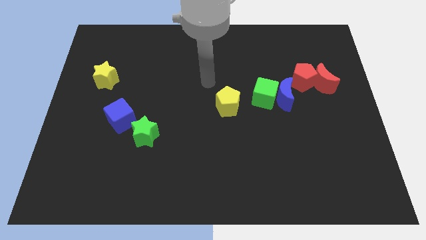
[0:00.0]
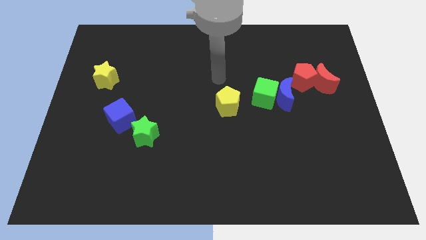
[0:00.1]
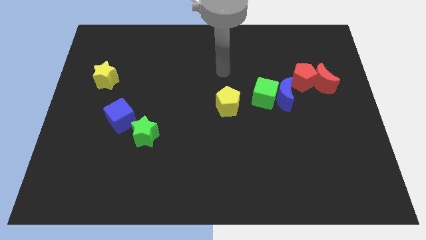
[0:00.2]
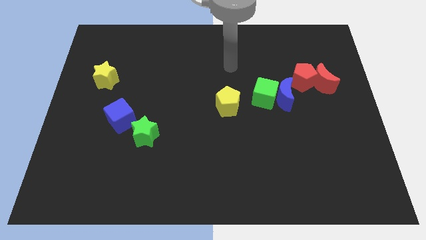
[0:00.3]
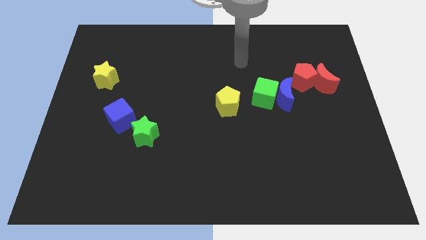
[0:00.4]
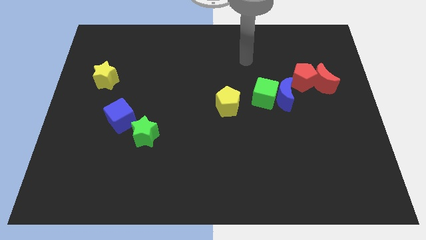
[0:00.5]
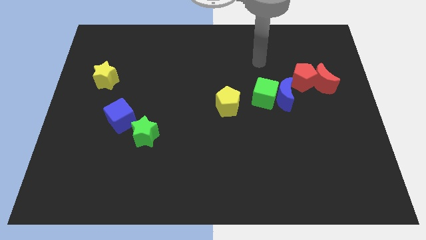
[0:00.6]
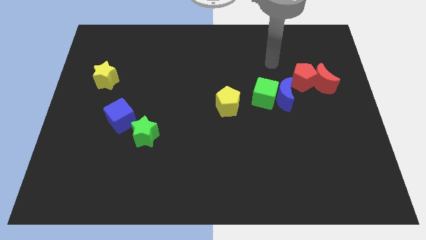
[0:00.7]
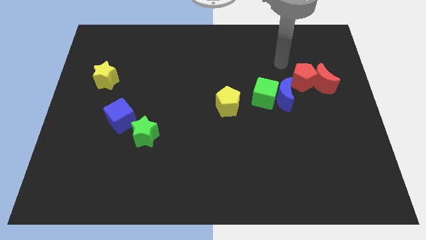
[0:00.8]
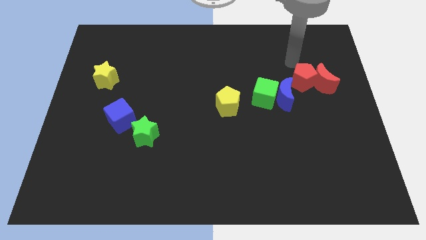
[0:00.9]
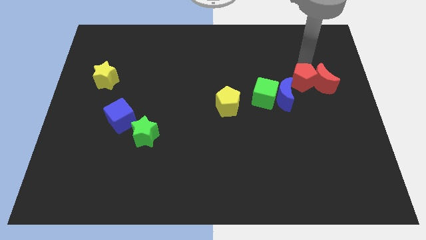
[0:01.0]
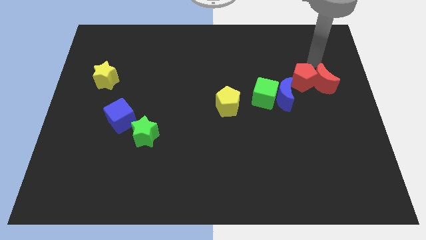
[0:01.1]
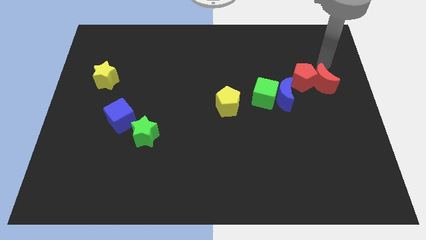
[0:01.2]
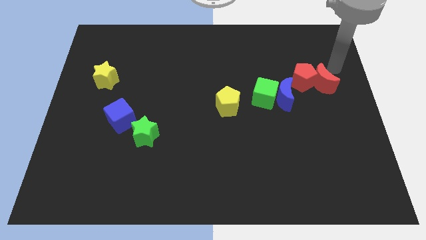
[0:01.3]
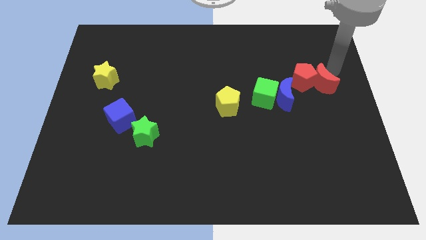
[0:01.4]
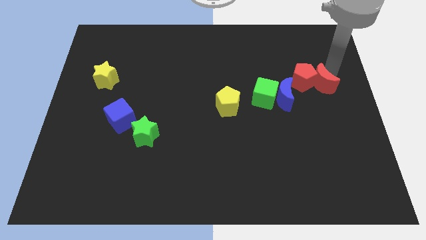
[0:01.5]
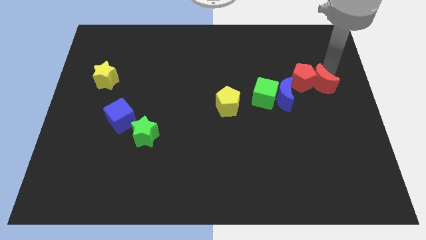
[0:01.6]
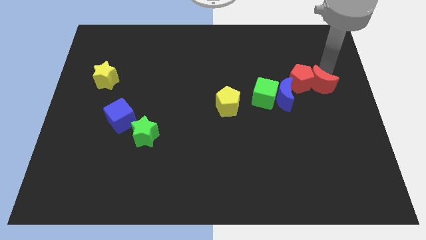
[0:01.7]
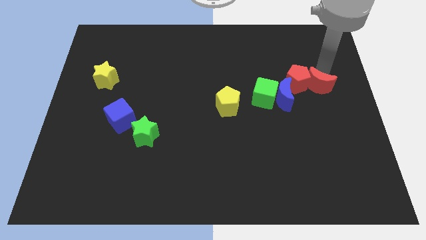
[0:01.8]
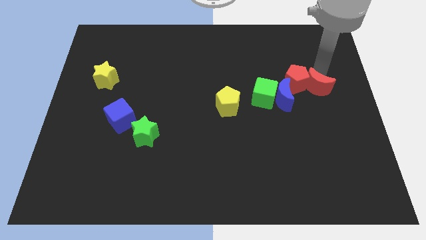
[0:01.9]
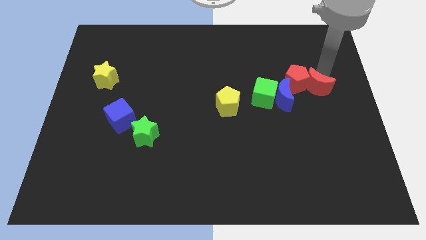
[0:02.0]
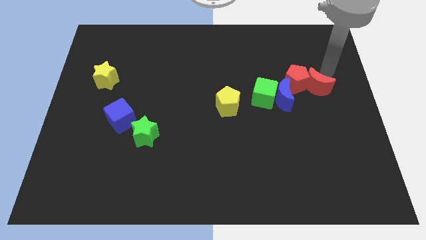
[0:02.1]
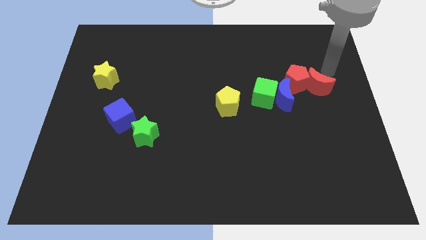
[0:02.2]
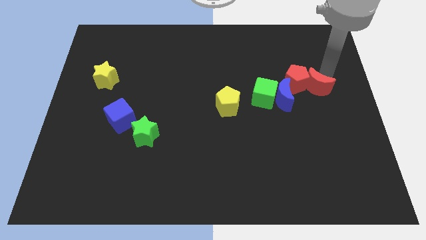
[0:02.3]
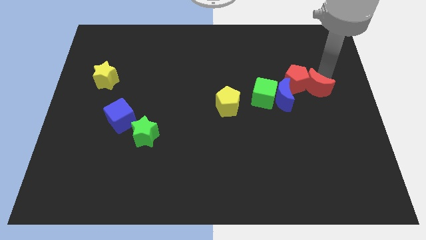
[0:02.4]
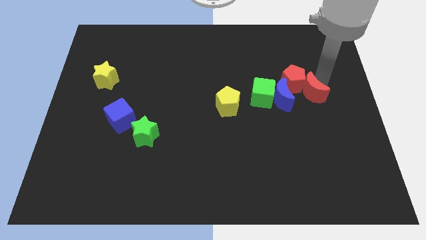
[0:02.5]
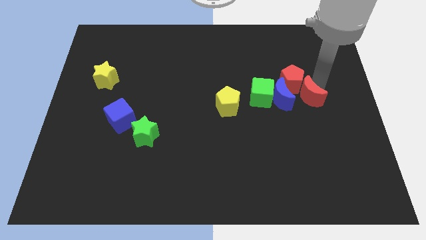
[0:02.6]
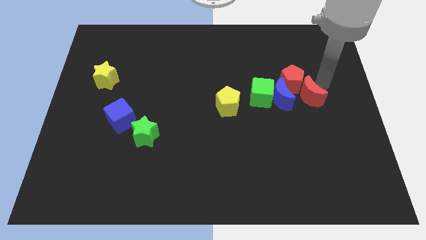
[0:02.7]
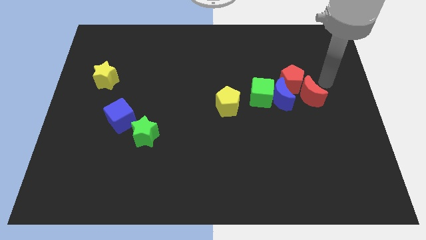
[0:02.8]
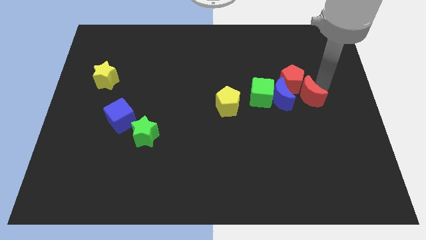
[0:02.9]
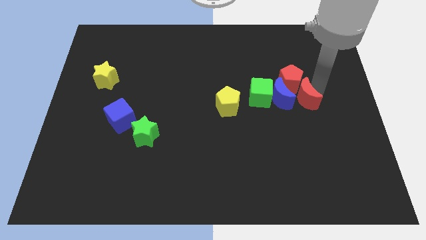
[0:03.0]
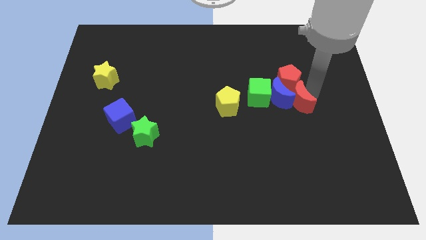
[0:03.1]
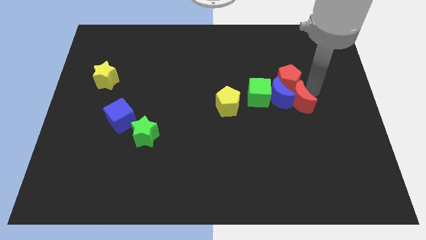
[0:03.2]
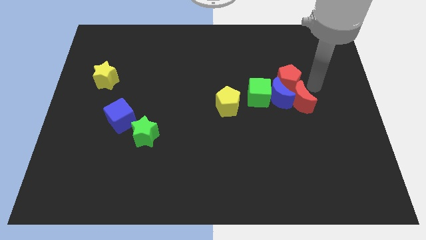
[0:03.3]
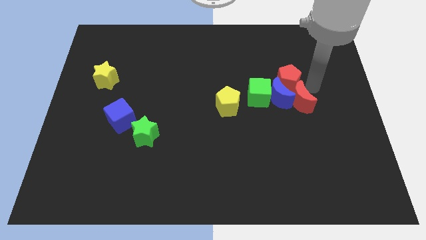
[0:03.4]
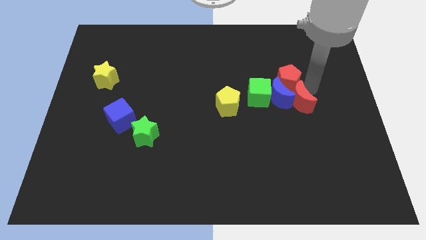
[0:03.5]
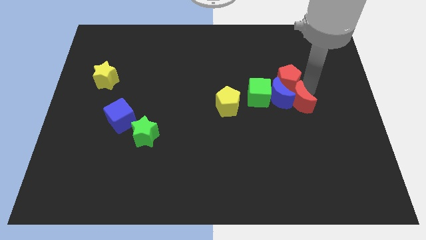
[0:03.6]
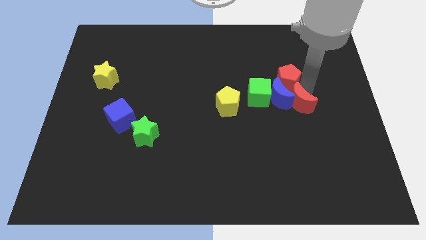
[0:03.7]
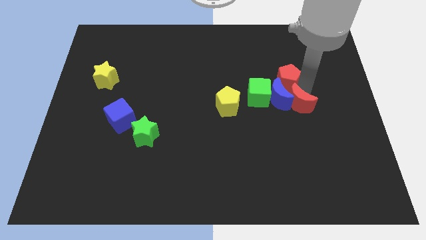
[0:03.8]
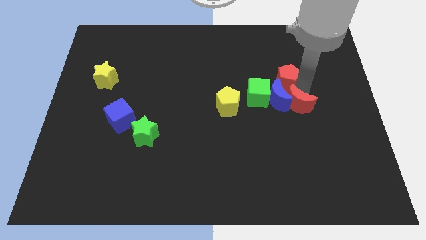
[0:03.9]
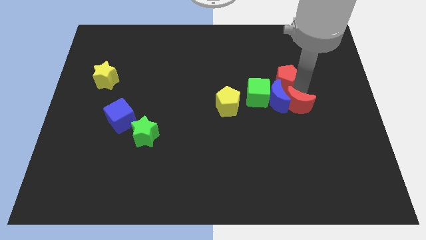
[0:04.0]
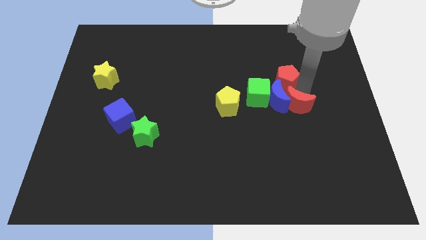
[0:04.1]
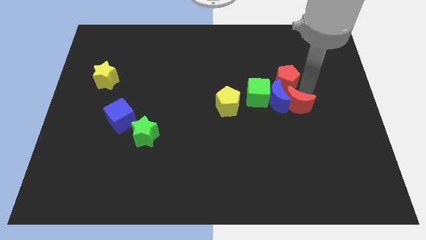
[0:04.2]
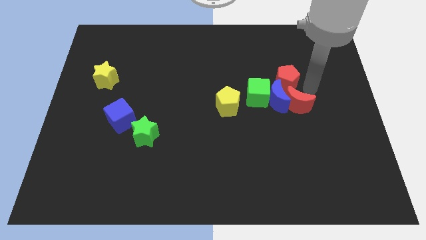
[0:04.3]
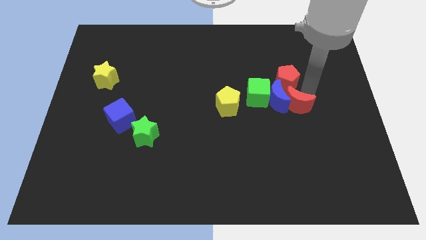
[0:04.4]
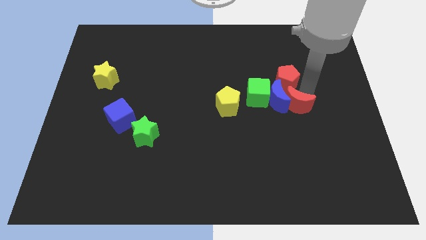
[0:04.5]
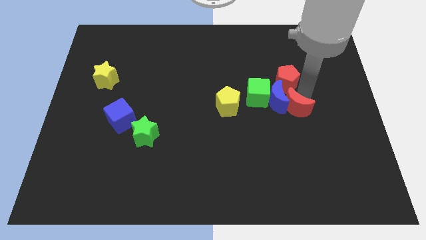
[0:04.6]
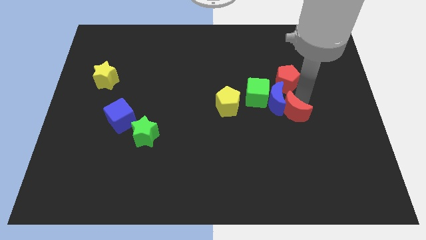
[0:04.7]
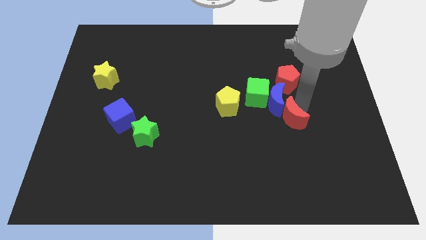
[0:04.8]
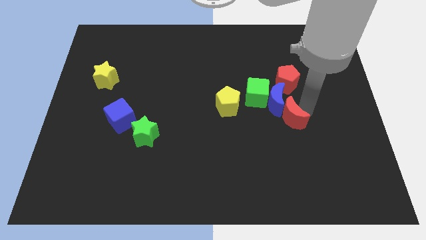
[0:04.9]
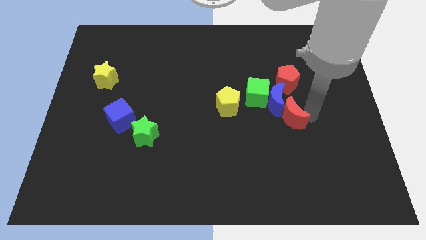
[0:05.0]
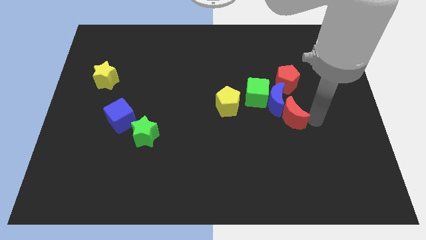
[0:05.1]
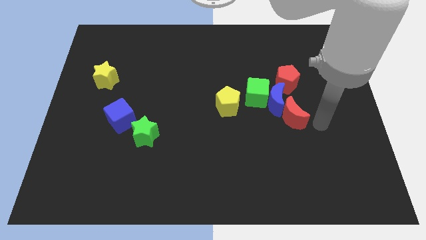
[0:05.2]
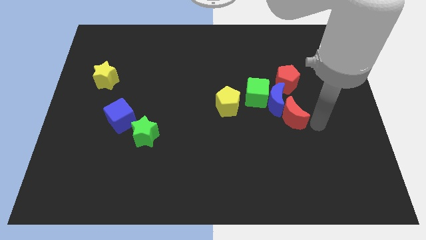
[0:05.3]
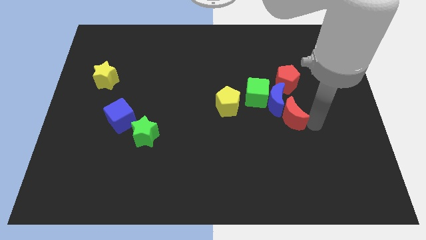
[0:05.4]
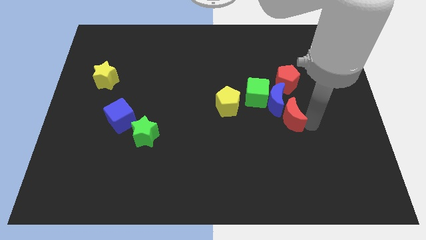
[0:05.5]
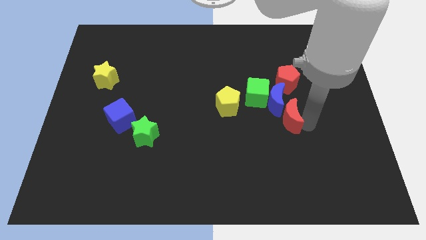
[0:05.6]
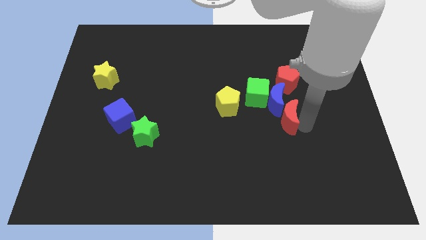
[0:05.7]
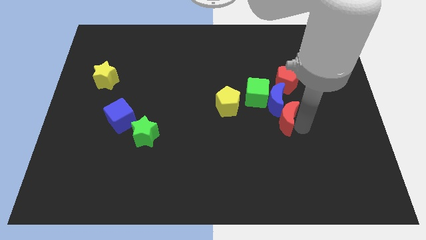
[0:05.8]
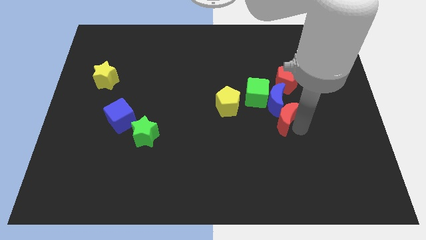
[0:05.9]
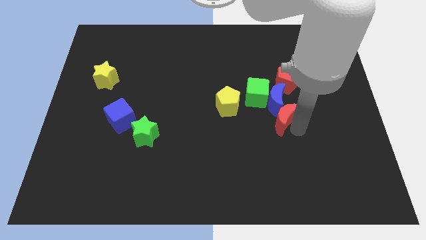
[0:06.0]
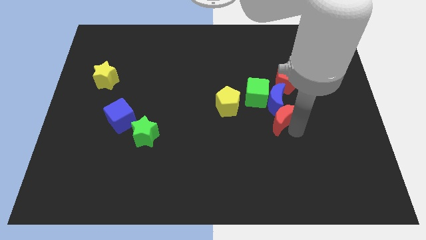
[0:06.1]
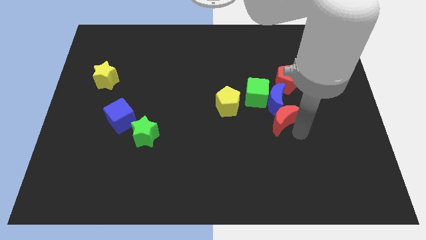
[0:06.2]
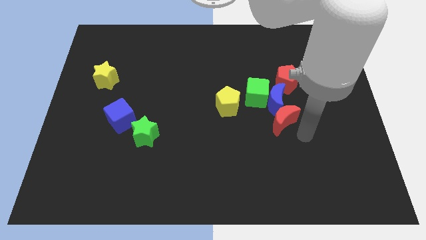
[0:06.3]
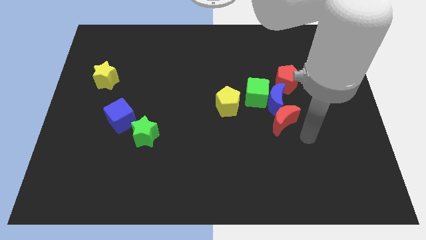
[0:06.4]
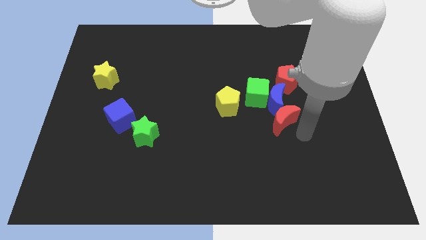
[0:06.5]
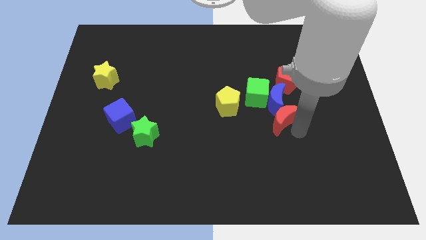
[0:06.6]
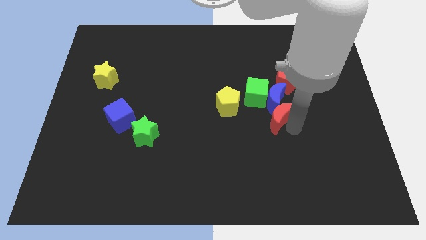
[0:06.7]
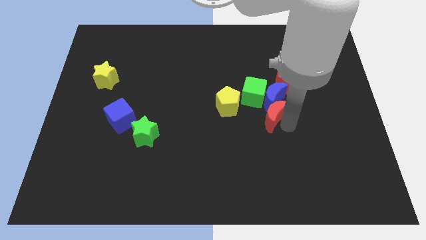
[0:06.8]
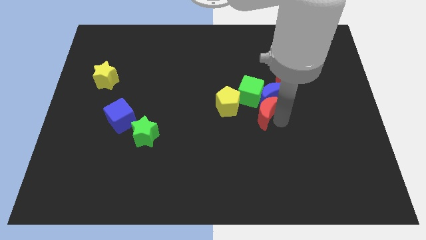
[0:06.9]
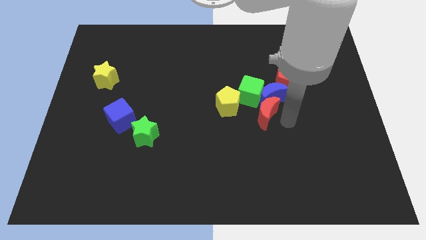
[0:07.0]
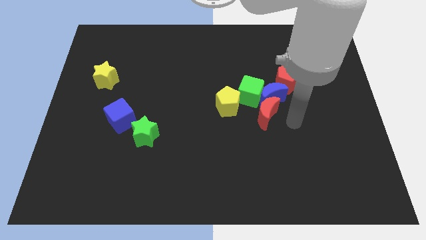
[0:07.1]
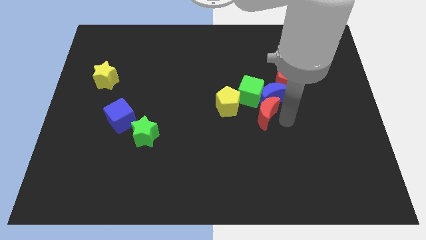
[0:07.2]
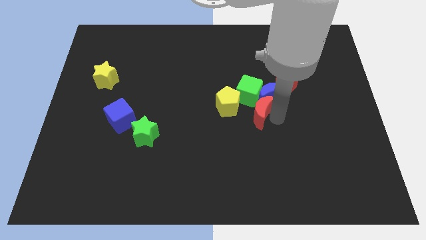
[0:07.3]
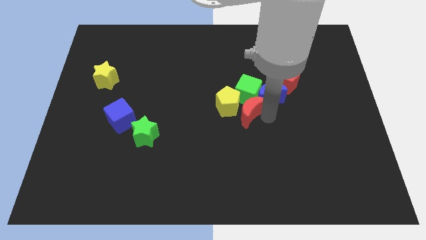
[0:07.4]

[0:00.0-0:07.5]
slide the red moon close to the yellow pentagon
